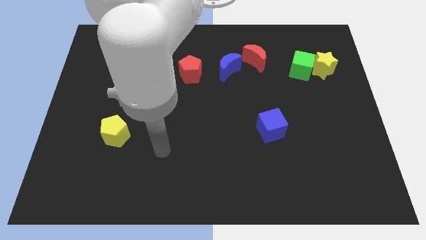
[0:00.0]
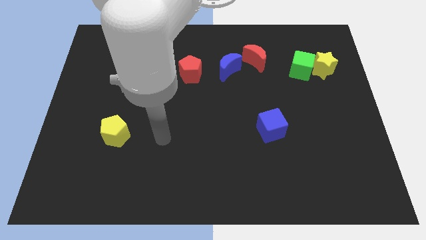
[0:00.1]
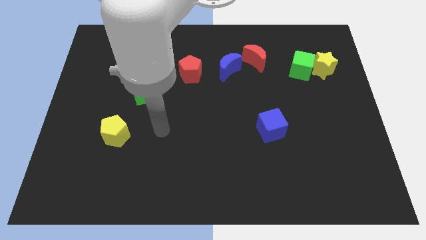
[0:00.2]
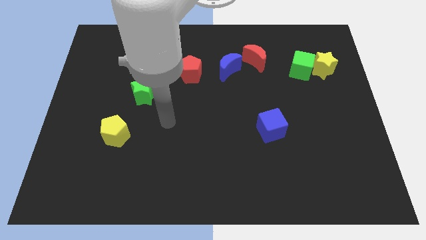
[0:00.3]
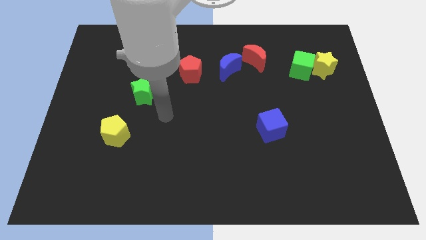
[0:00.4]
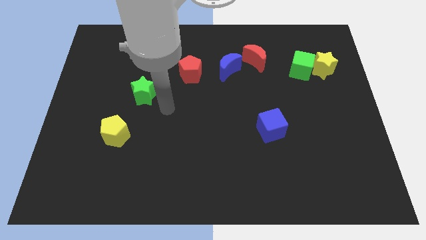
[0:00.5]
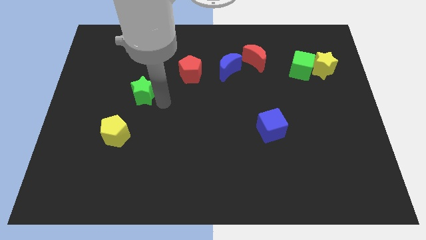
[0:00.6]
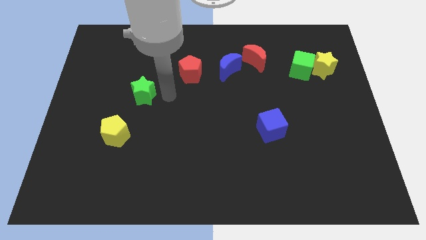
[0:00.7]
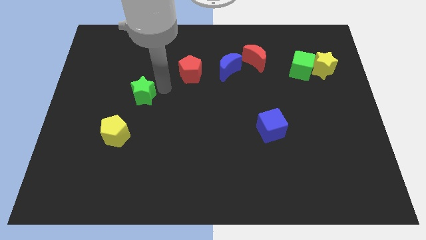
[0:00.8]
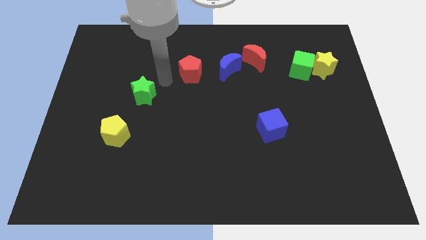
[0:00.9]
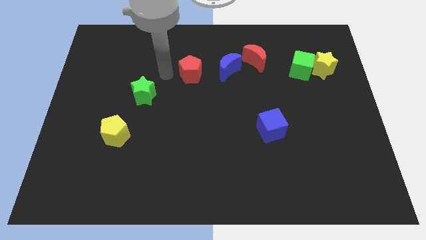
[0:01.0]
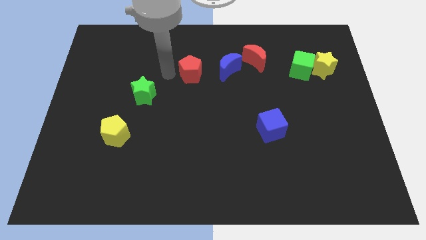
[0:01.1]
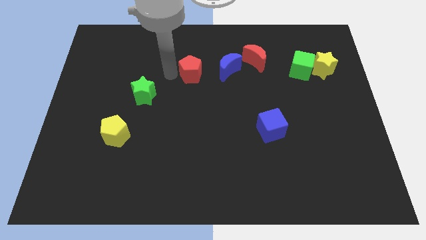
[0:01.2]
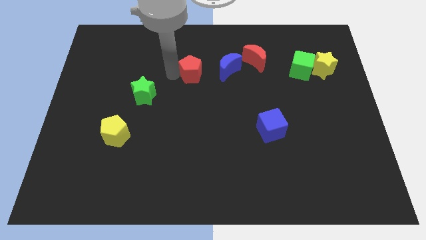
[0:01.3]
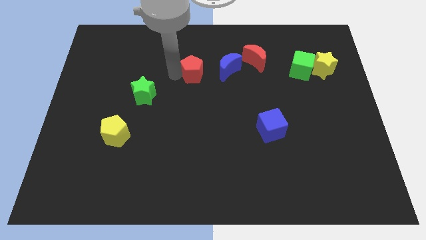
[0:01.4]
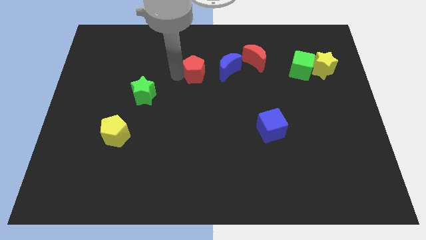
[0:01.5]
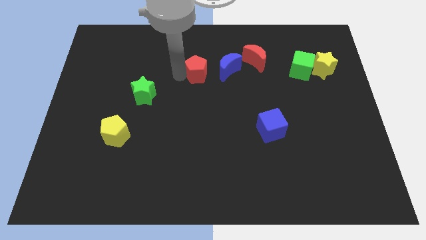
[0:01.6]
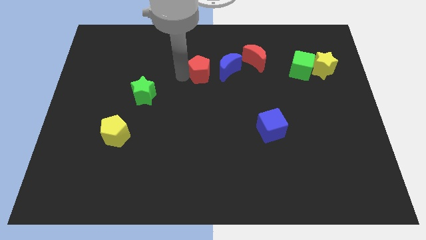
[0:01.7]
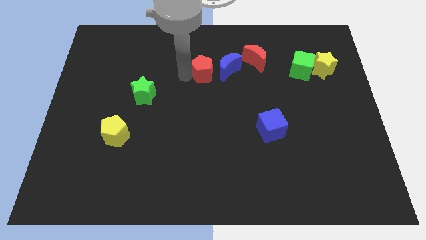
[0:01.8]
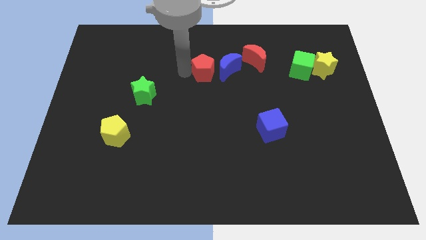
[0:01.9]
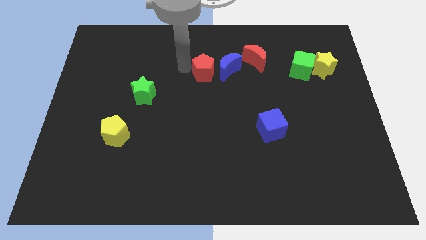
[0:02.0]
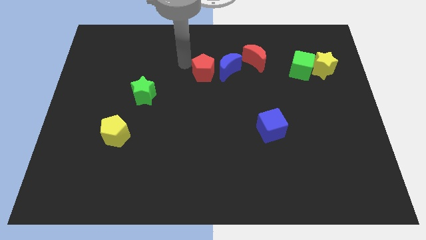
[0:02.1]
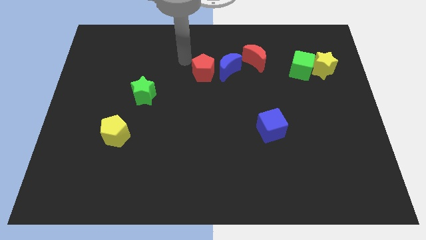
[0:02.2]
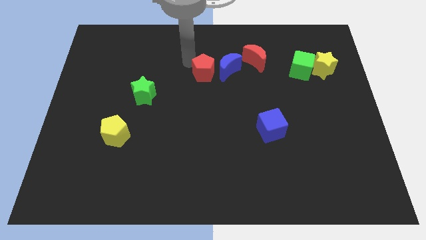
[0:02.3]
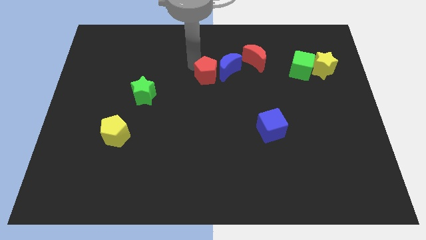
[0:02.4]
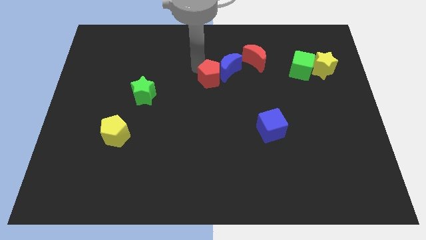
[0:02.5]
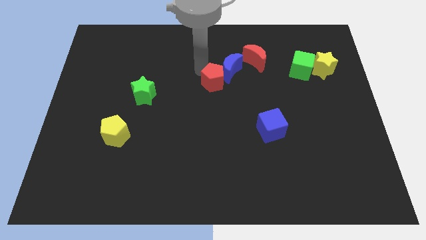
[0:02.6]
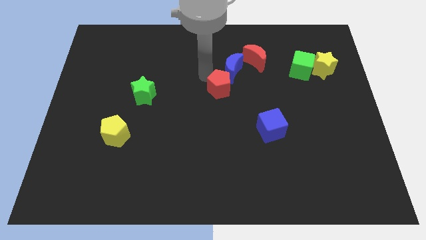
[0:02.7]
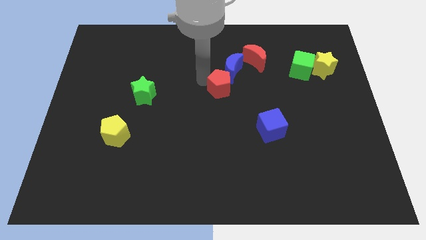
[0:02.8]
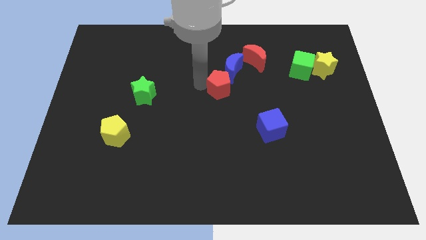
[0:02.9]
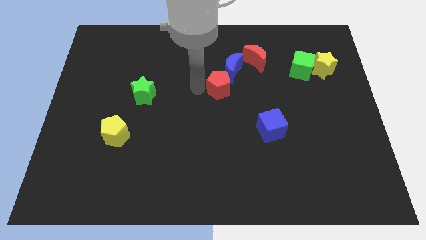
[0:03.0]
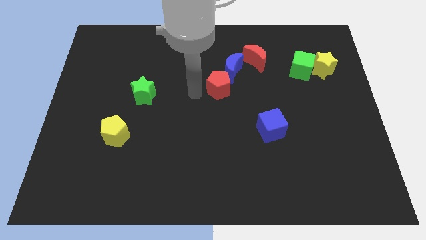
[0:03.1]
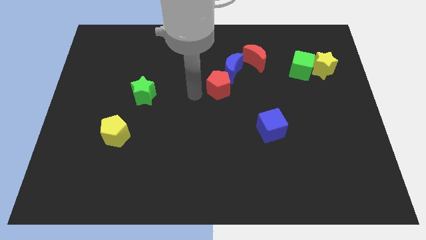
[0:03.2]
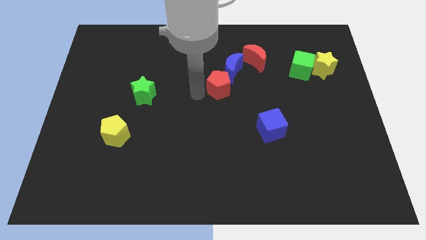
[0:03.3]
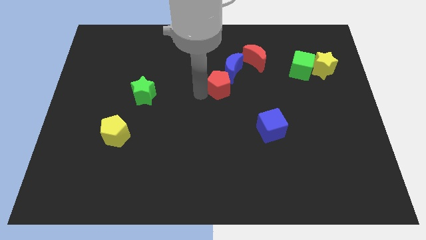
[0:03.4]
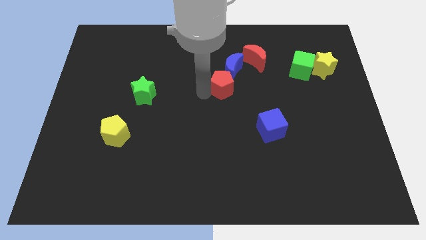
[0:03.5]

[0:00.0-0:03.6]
push the red pentagon right slightly

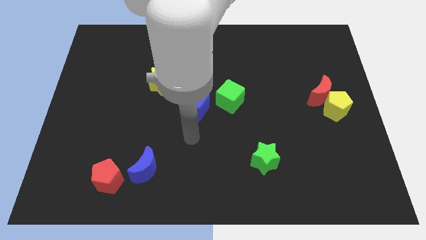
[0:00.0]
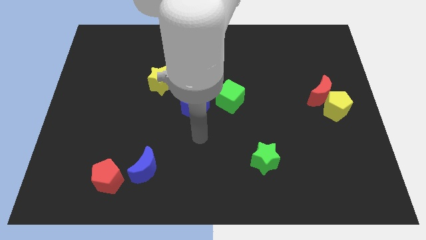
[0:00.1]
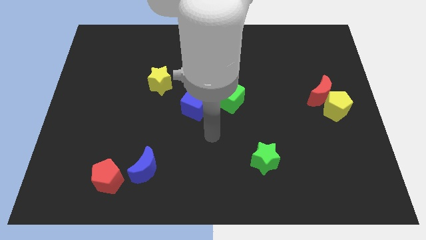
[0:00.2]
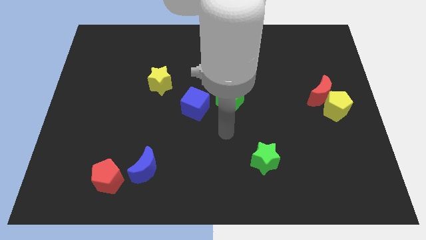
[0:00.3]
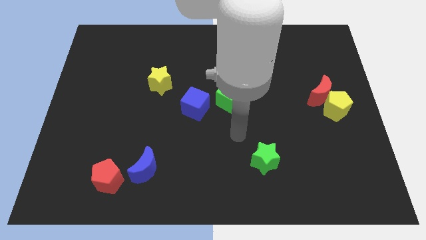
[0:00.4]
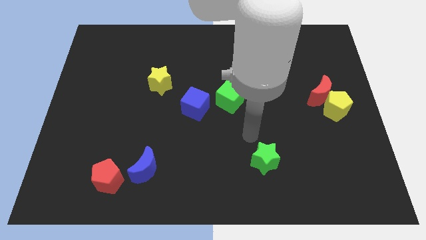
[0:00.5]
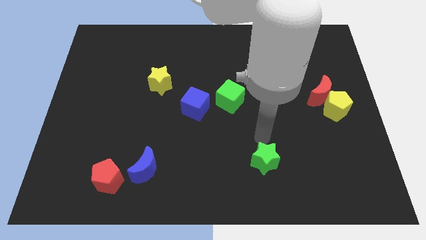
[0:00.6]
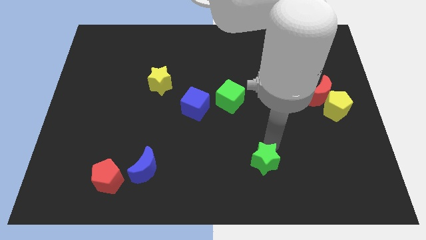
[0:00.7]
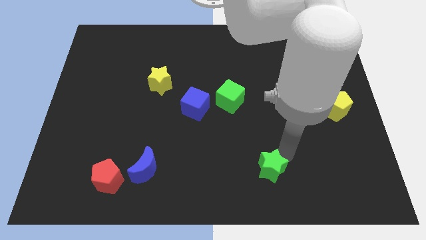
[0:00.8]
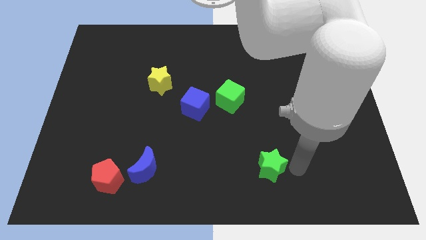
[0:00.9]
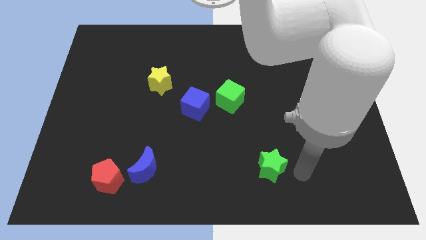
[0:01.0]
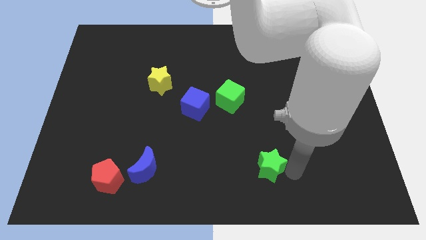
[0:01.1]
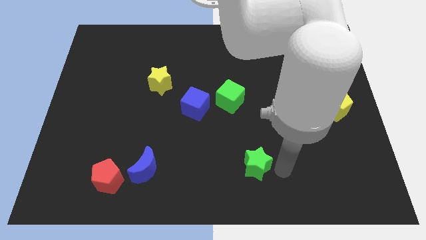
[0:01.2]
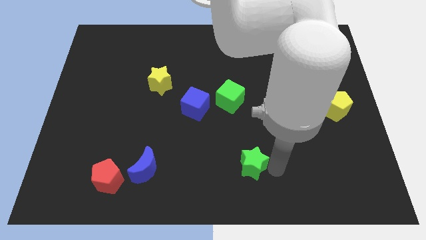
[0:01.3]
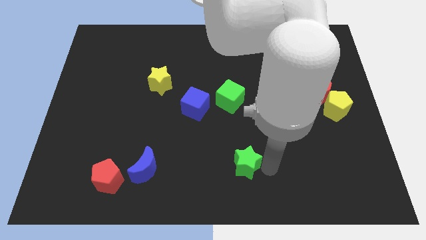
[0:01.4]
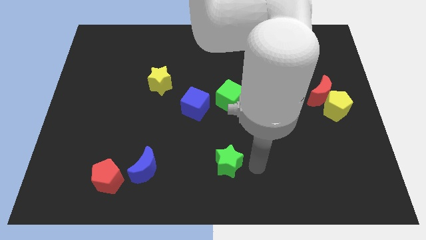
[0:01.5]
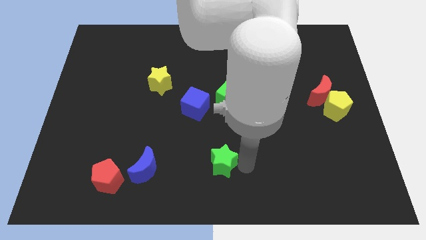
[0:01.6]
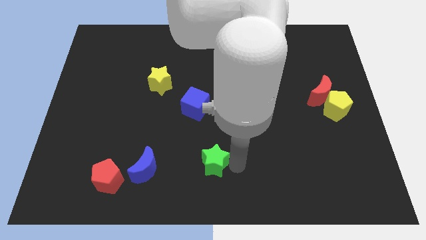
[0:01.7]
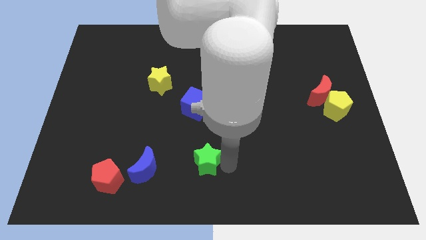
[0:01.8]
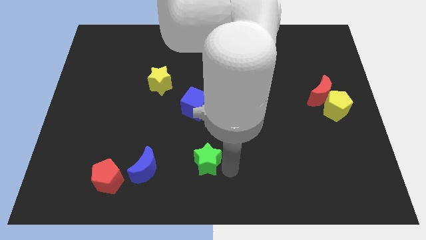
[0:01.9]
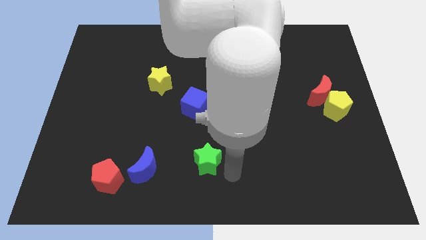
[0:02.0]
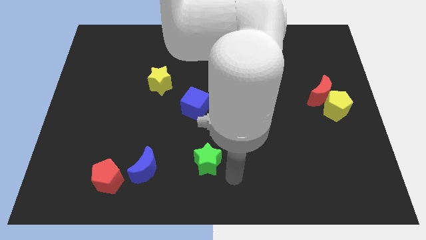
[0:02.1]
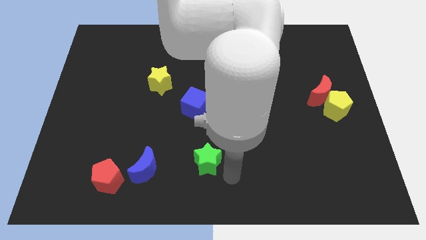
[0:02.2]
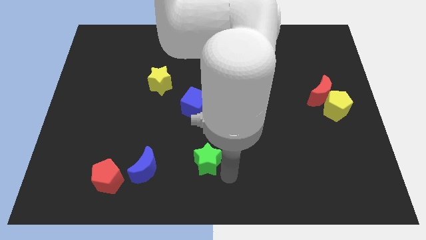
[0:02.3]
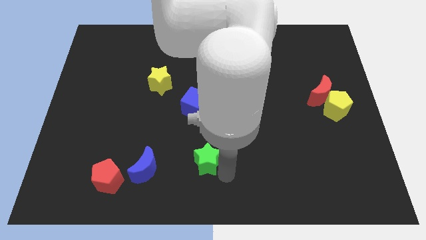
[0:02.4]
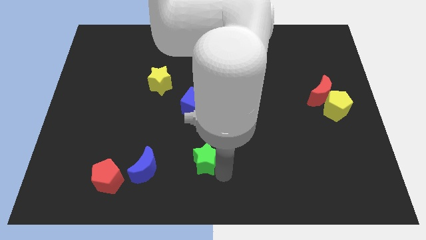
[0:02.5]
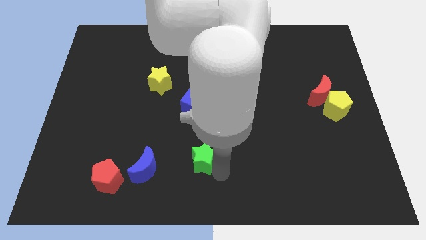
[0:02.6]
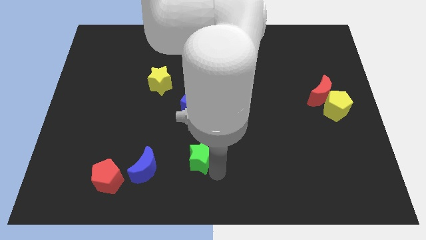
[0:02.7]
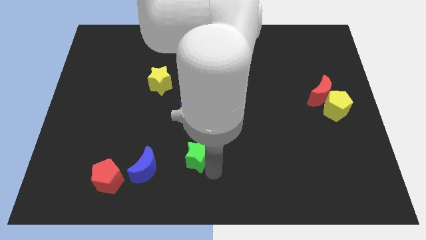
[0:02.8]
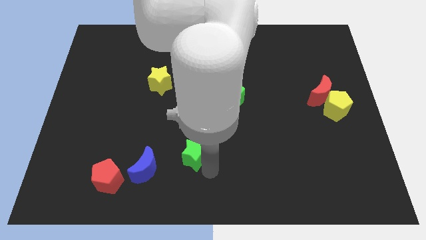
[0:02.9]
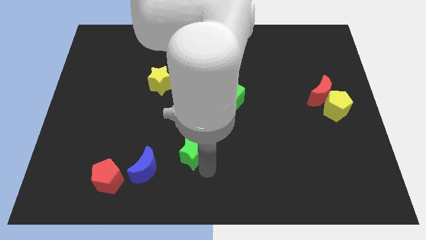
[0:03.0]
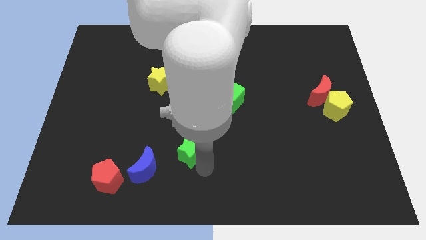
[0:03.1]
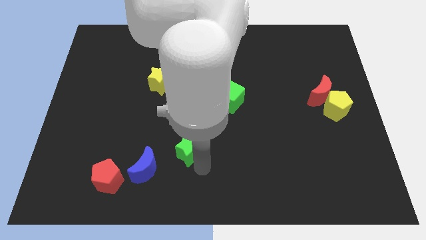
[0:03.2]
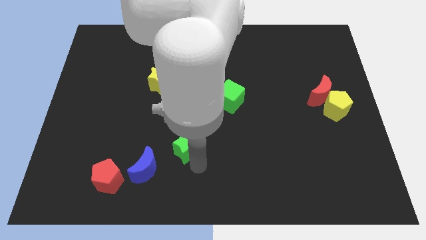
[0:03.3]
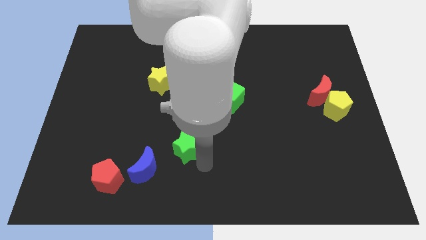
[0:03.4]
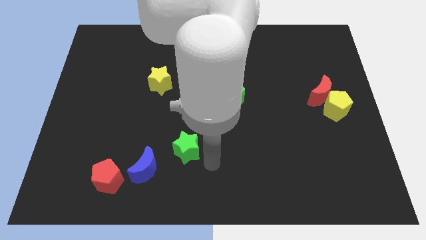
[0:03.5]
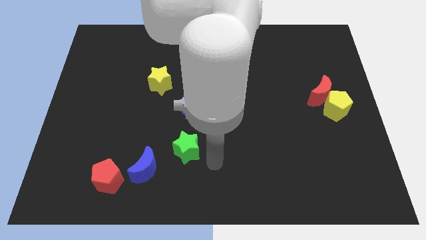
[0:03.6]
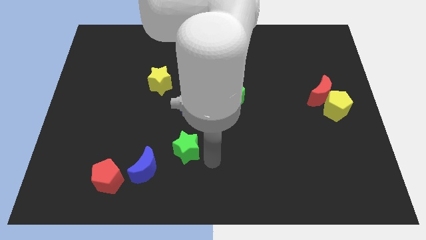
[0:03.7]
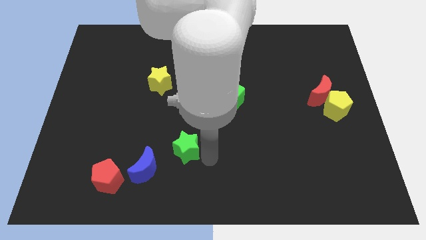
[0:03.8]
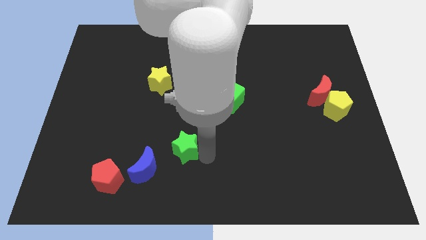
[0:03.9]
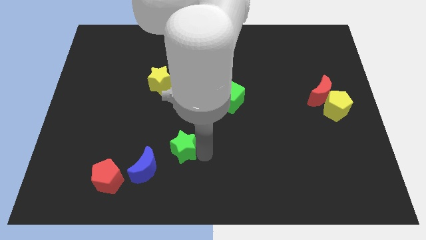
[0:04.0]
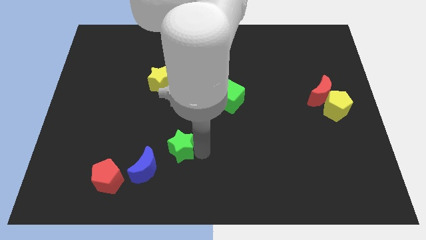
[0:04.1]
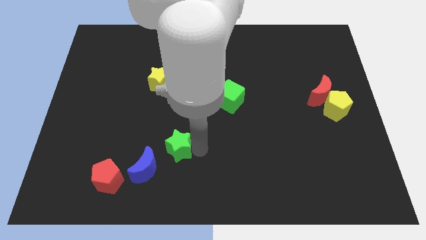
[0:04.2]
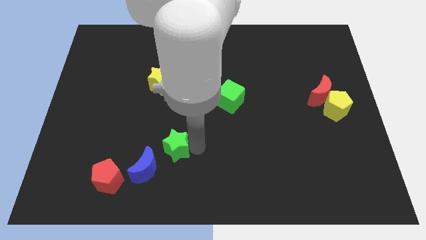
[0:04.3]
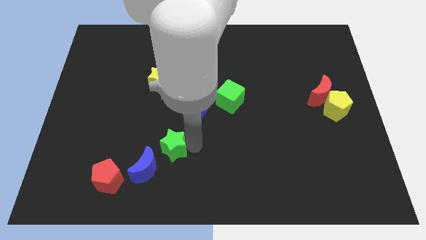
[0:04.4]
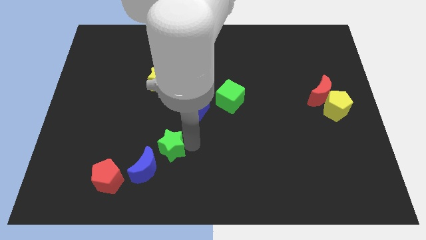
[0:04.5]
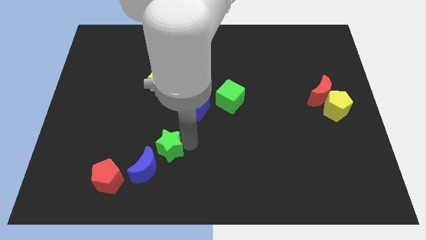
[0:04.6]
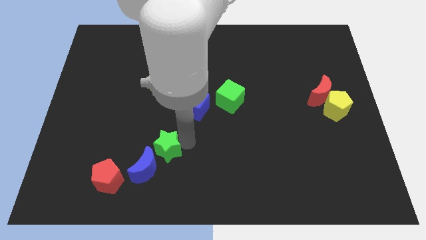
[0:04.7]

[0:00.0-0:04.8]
slide the green star to the left
